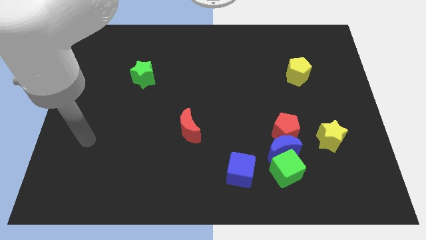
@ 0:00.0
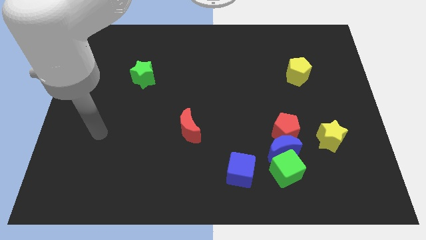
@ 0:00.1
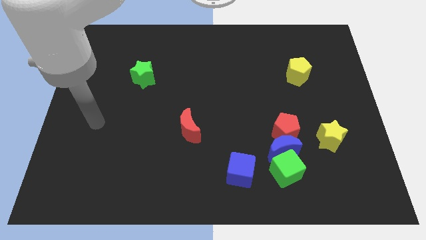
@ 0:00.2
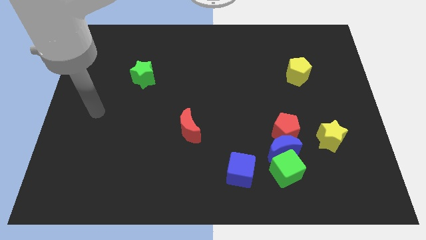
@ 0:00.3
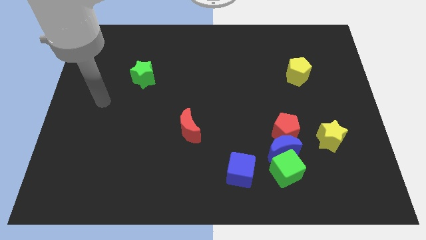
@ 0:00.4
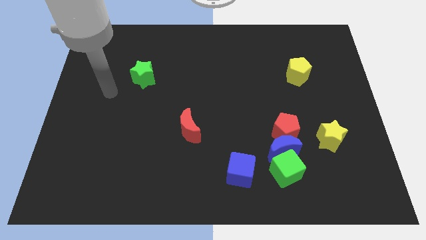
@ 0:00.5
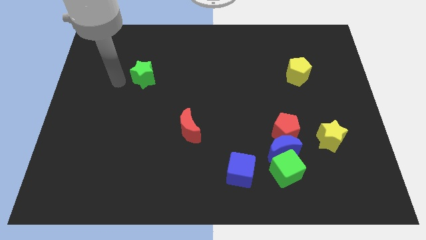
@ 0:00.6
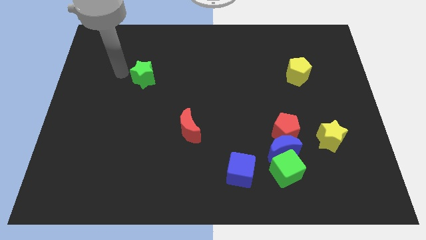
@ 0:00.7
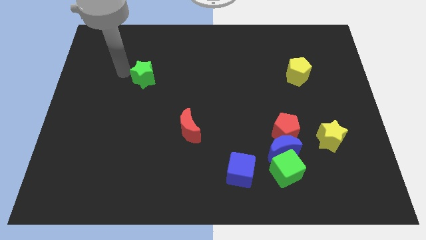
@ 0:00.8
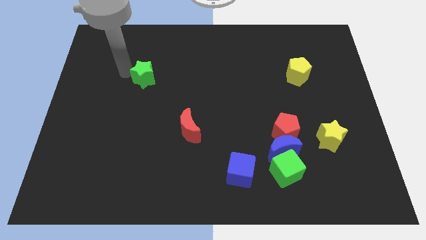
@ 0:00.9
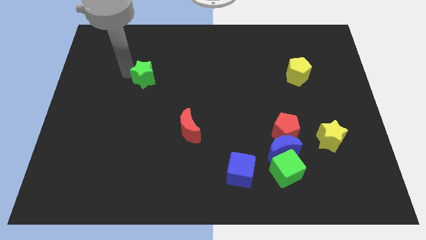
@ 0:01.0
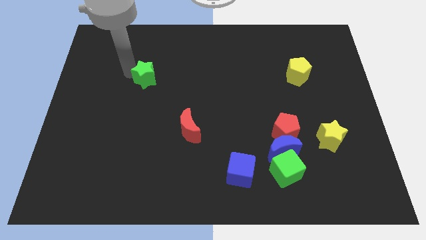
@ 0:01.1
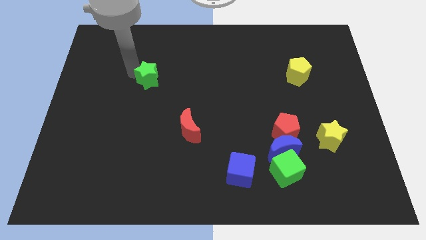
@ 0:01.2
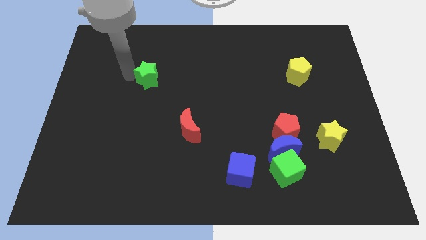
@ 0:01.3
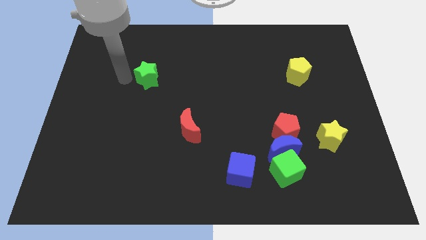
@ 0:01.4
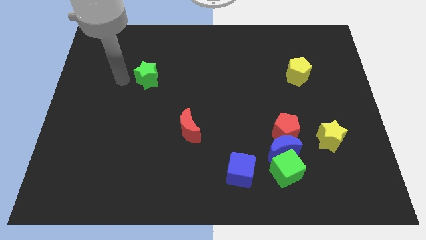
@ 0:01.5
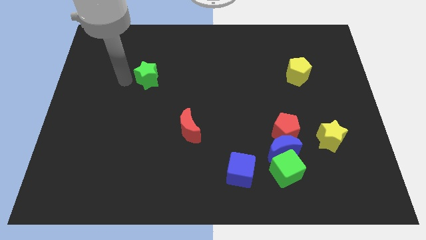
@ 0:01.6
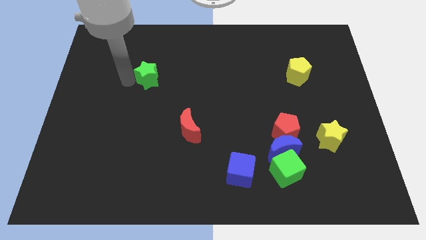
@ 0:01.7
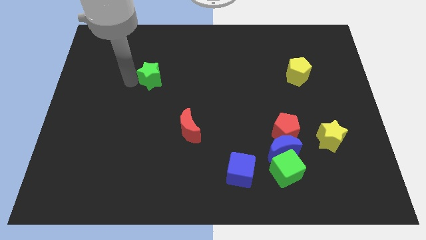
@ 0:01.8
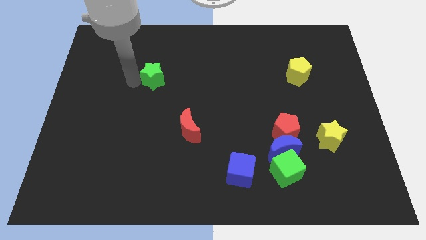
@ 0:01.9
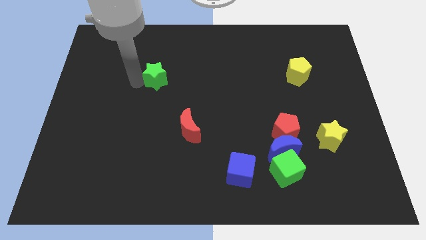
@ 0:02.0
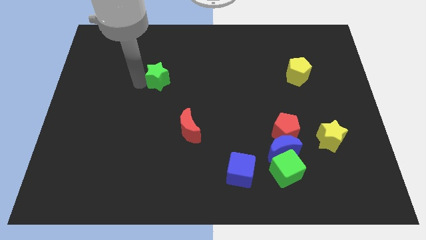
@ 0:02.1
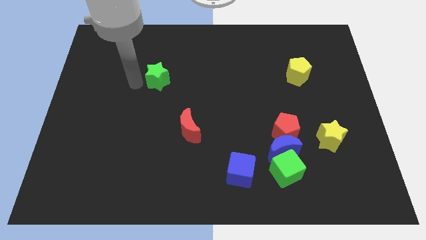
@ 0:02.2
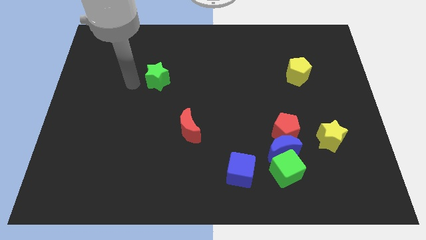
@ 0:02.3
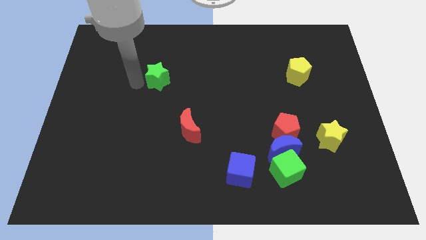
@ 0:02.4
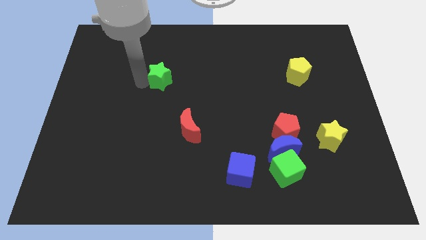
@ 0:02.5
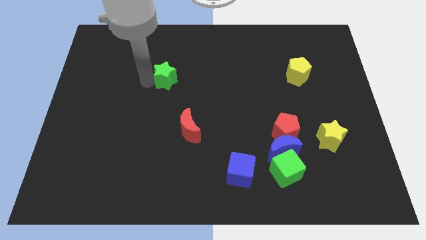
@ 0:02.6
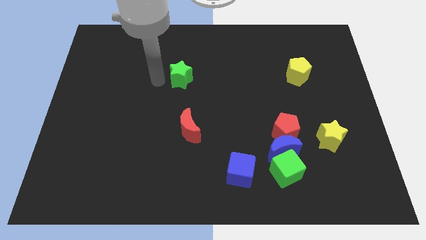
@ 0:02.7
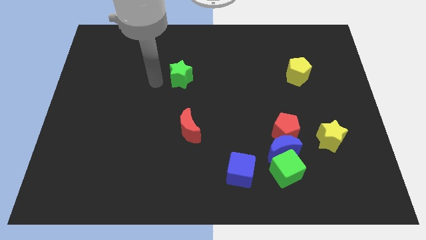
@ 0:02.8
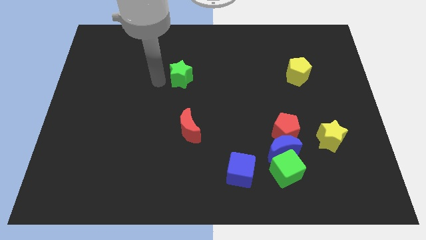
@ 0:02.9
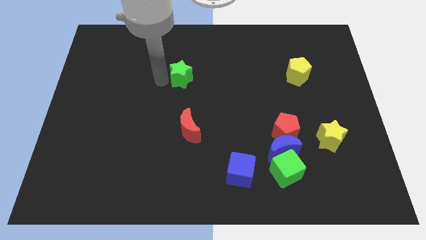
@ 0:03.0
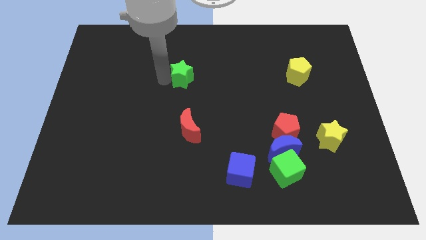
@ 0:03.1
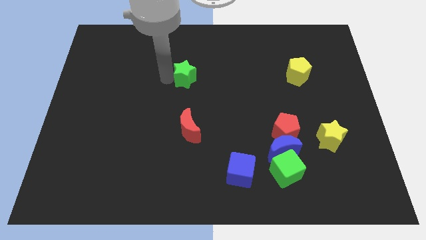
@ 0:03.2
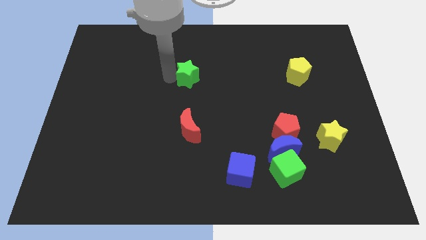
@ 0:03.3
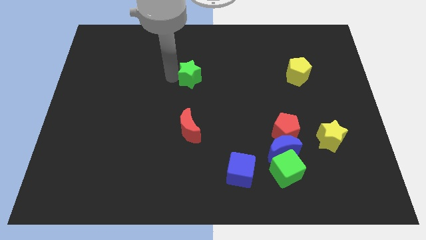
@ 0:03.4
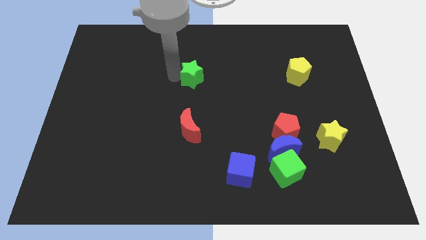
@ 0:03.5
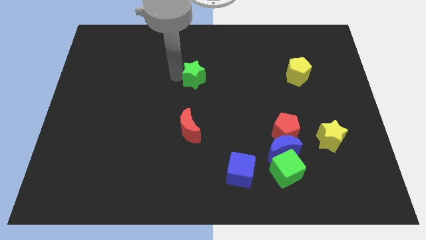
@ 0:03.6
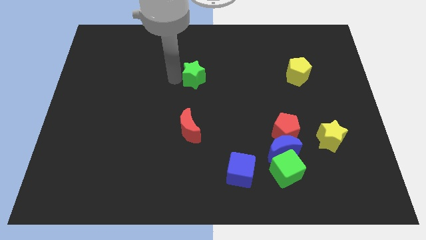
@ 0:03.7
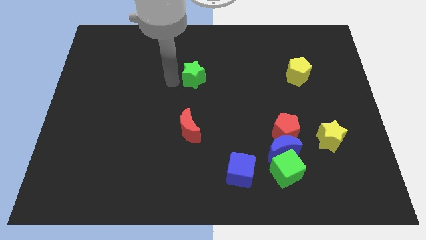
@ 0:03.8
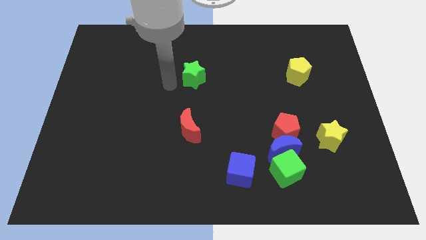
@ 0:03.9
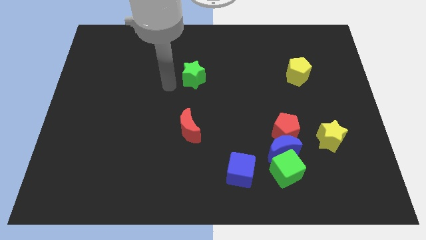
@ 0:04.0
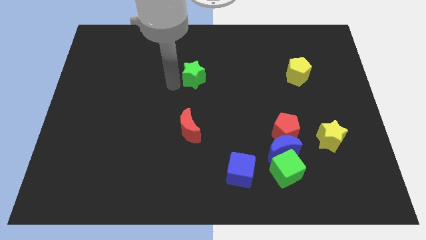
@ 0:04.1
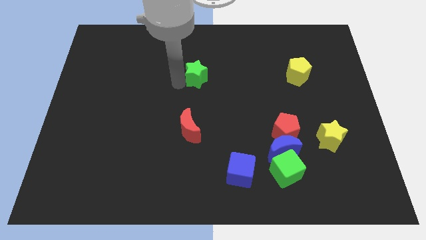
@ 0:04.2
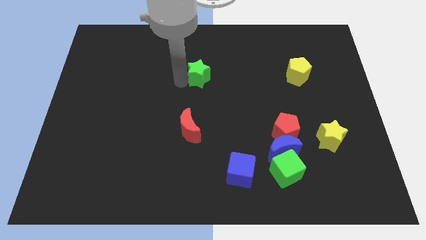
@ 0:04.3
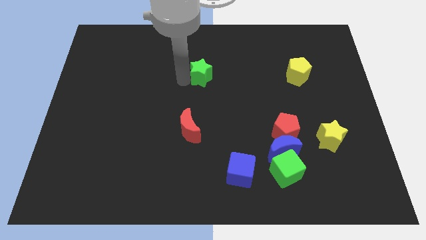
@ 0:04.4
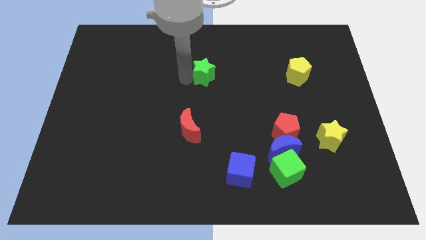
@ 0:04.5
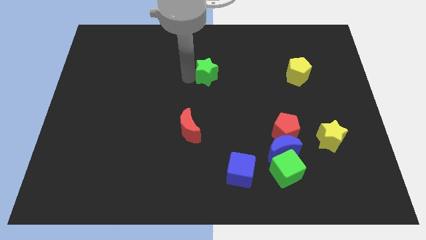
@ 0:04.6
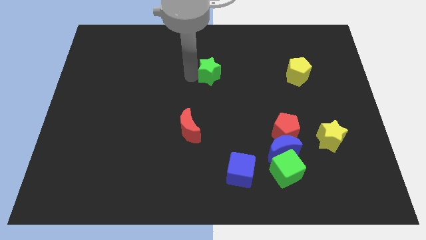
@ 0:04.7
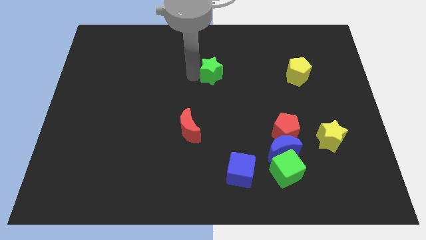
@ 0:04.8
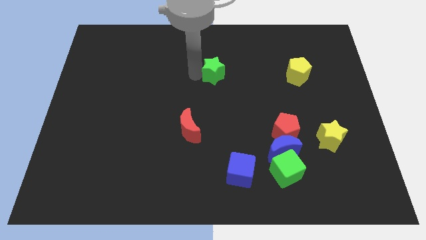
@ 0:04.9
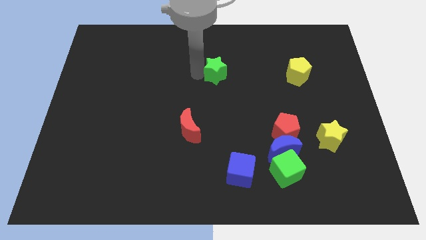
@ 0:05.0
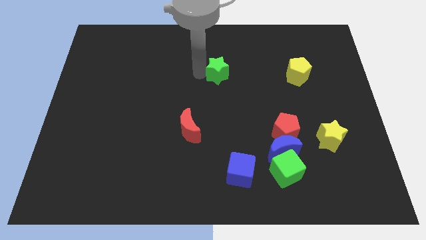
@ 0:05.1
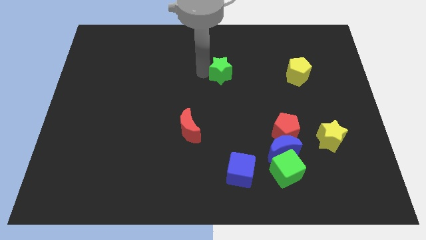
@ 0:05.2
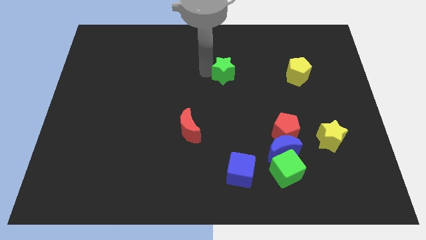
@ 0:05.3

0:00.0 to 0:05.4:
push the green star right

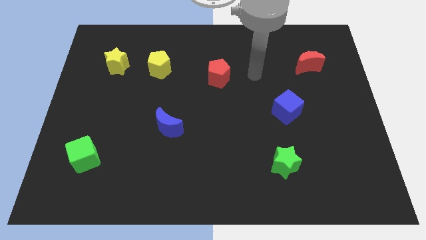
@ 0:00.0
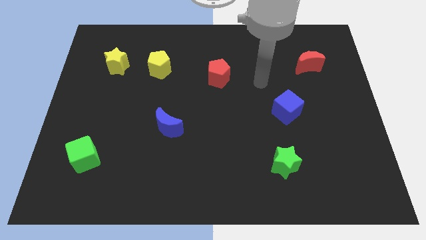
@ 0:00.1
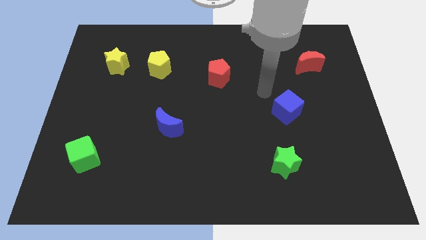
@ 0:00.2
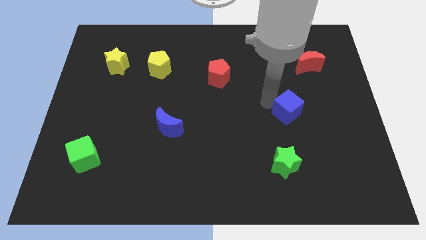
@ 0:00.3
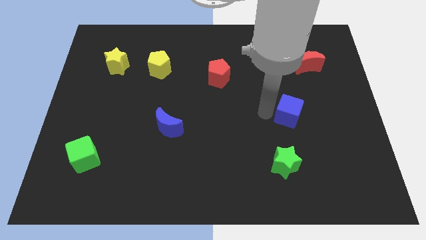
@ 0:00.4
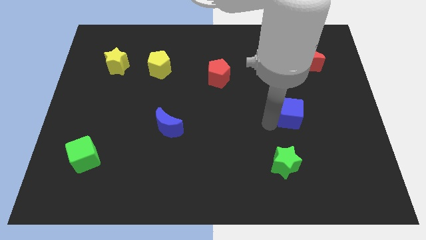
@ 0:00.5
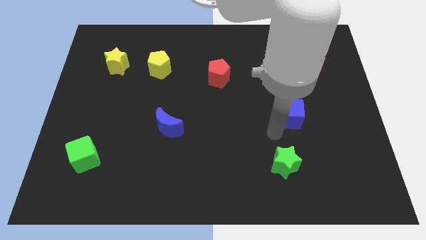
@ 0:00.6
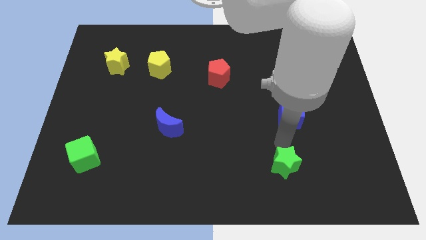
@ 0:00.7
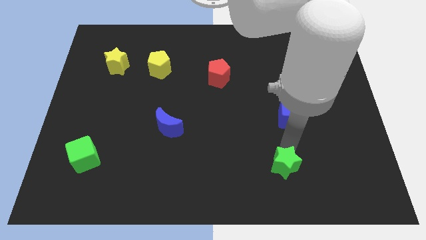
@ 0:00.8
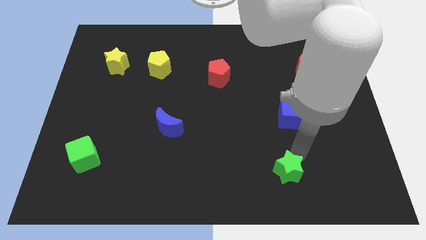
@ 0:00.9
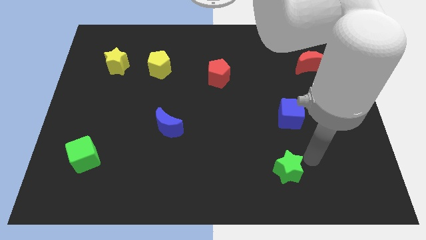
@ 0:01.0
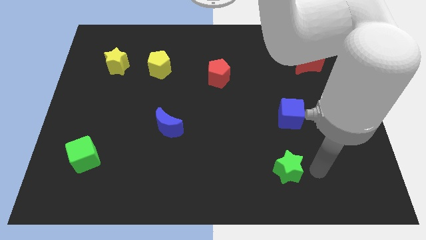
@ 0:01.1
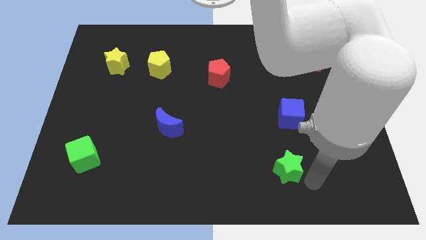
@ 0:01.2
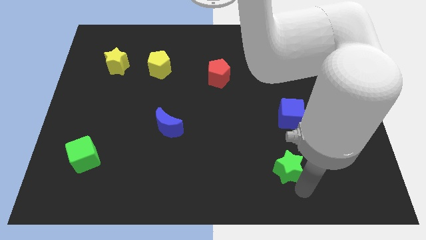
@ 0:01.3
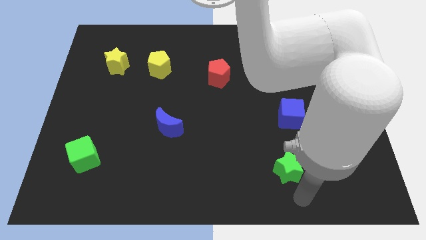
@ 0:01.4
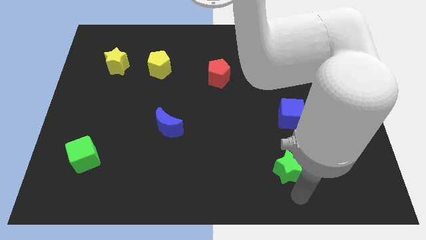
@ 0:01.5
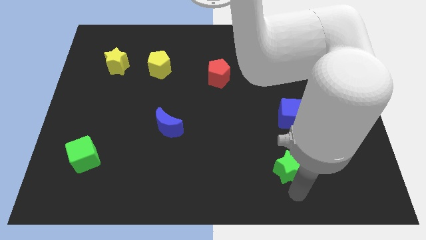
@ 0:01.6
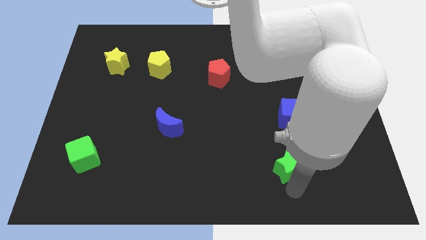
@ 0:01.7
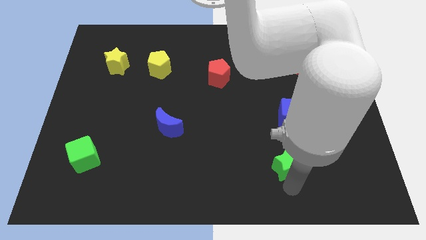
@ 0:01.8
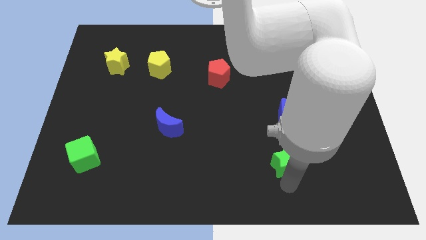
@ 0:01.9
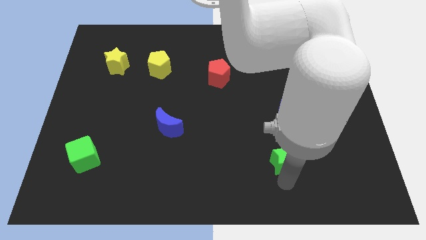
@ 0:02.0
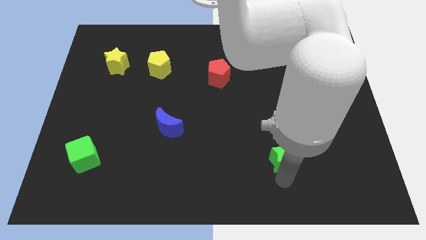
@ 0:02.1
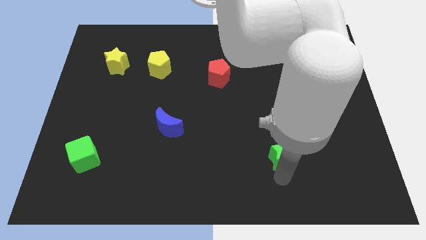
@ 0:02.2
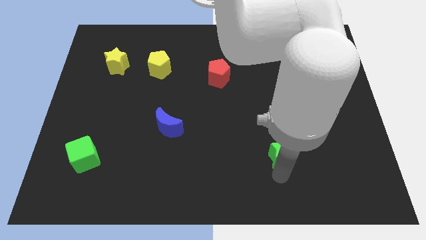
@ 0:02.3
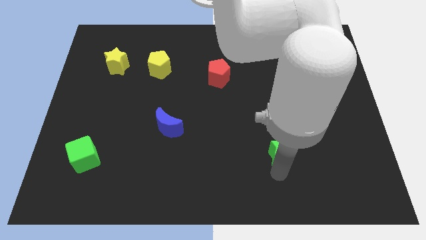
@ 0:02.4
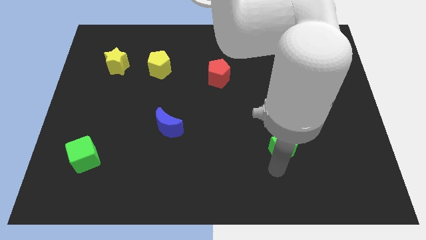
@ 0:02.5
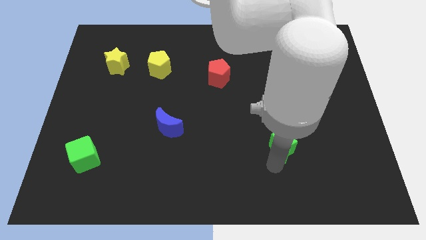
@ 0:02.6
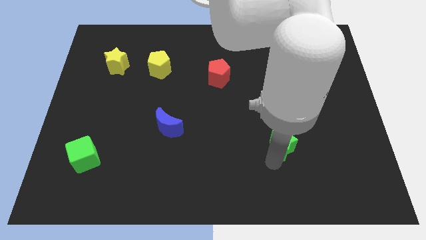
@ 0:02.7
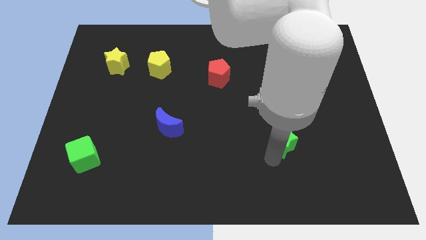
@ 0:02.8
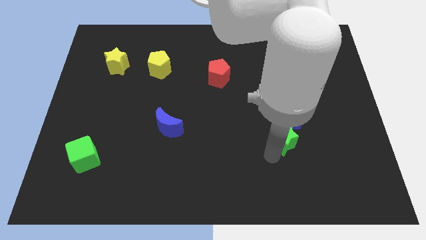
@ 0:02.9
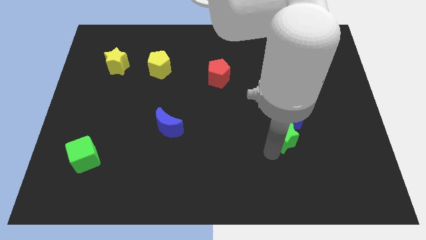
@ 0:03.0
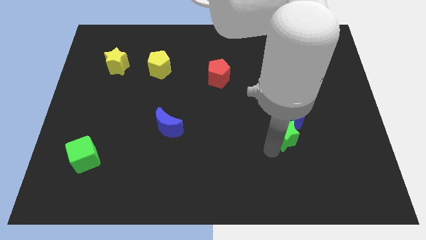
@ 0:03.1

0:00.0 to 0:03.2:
slide the green star up a little bit
